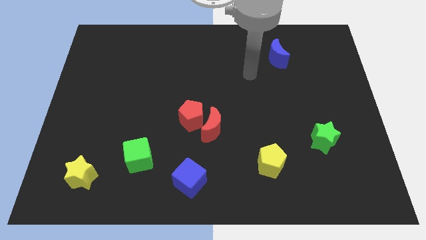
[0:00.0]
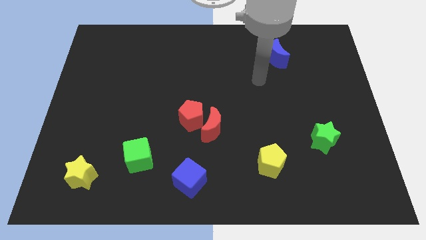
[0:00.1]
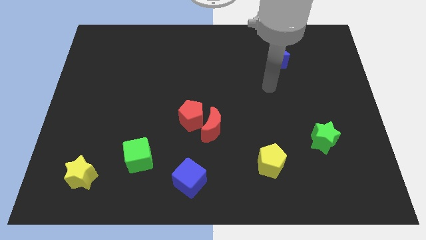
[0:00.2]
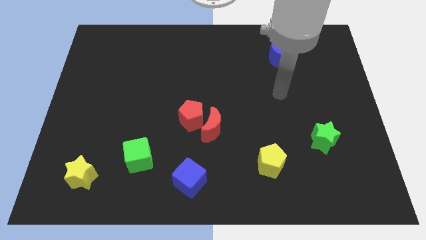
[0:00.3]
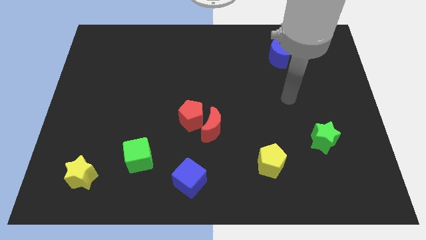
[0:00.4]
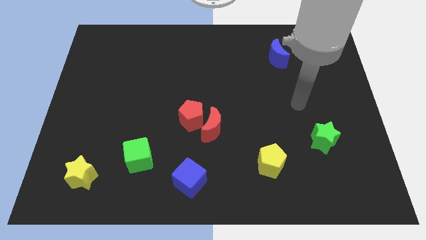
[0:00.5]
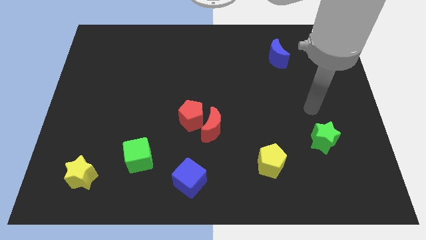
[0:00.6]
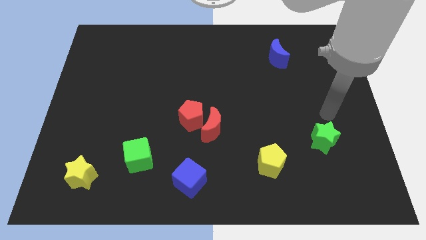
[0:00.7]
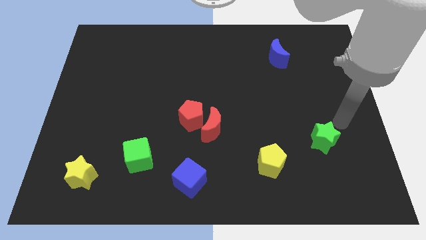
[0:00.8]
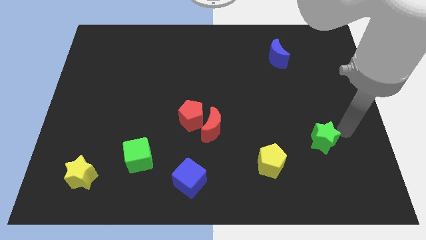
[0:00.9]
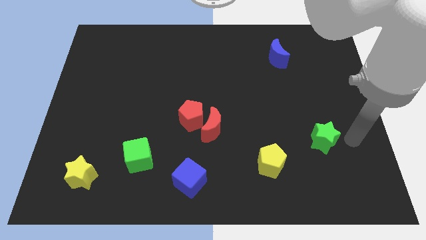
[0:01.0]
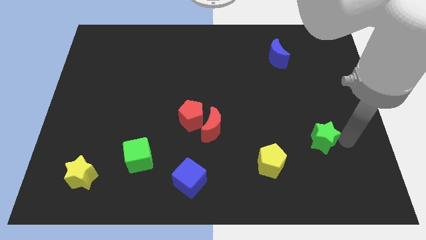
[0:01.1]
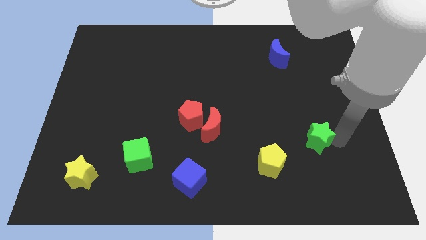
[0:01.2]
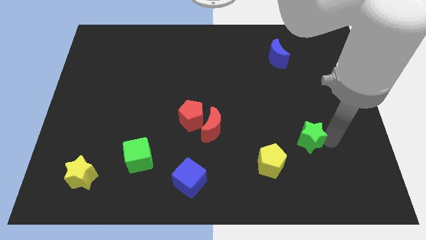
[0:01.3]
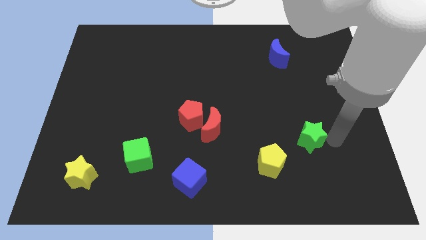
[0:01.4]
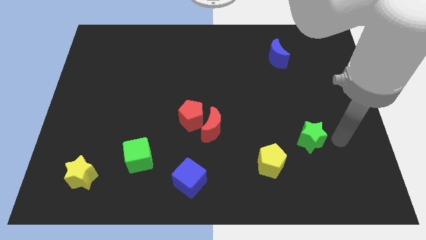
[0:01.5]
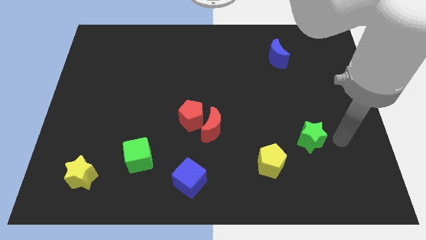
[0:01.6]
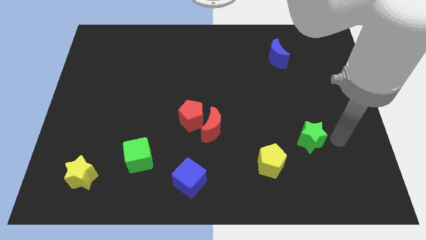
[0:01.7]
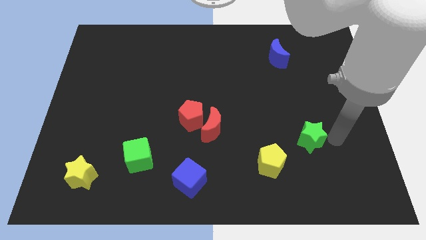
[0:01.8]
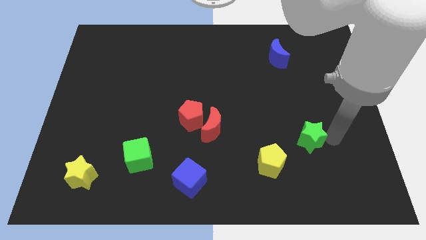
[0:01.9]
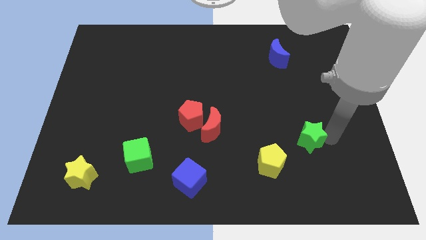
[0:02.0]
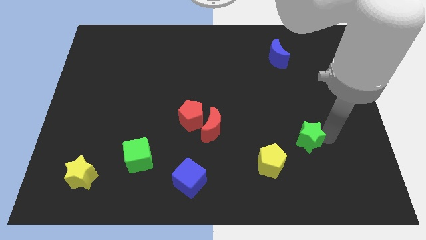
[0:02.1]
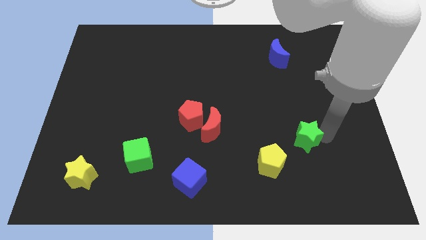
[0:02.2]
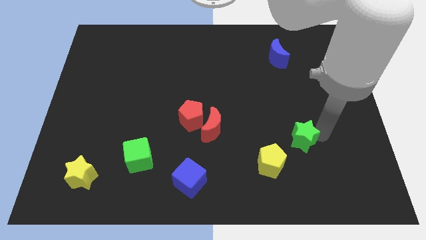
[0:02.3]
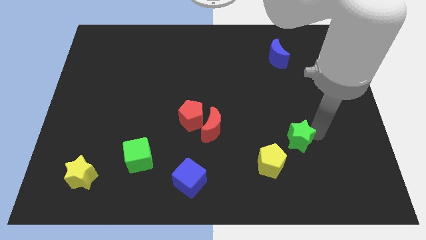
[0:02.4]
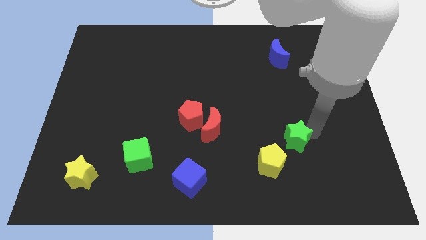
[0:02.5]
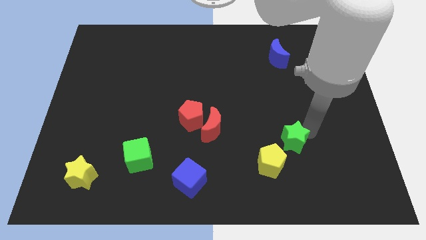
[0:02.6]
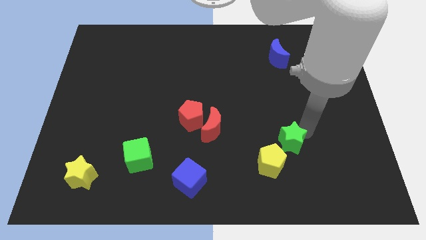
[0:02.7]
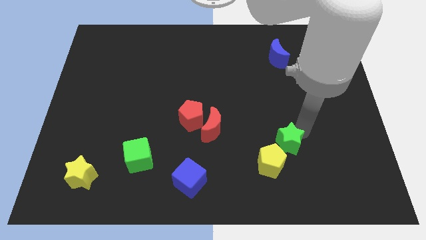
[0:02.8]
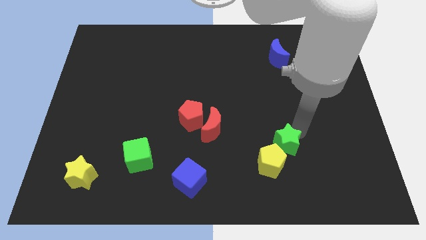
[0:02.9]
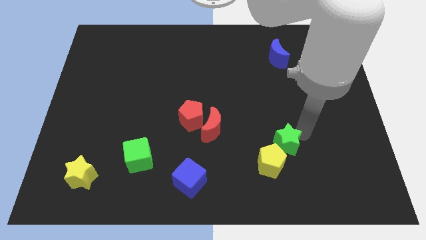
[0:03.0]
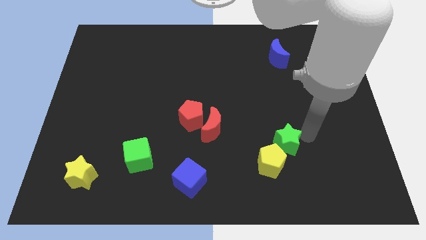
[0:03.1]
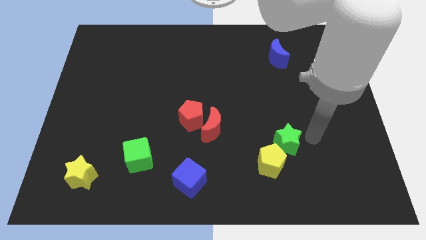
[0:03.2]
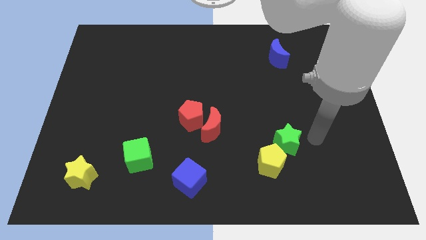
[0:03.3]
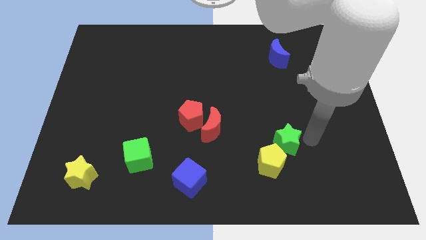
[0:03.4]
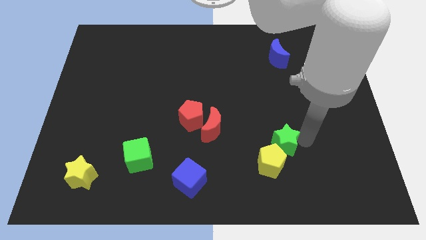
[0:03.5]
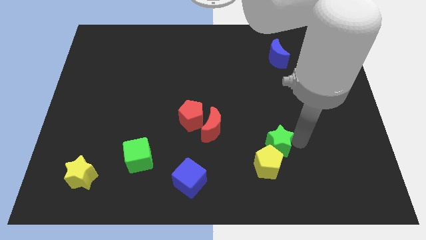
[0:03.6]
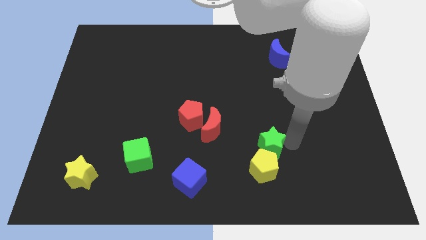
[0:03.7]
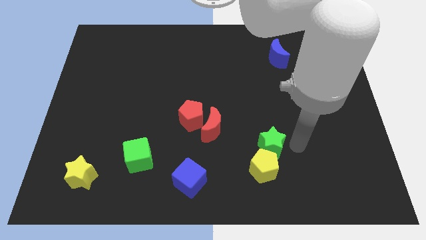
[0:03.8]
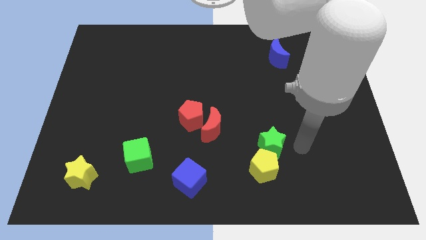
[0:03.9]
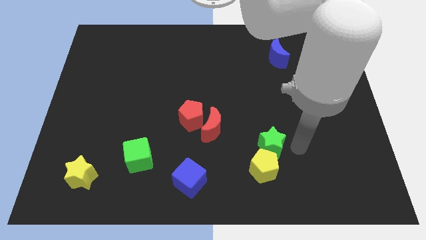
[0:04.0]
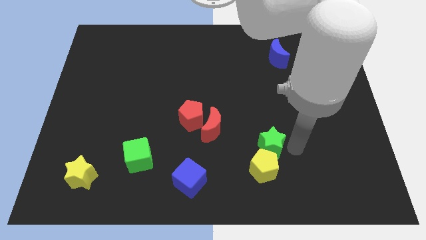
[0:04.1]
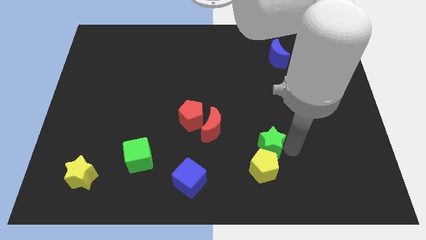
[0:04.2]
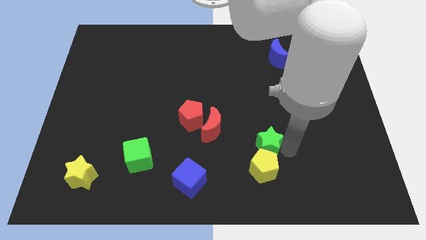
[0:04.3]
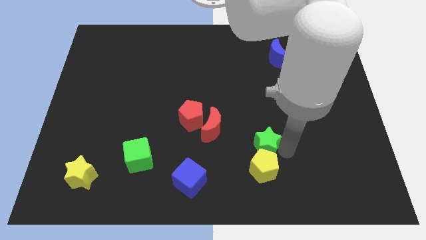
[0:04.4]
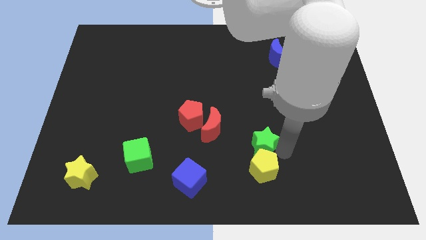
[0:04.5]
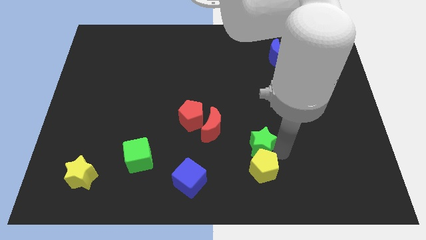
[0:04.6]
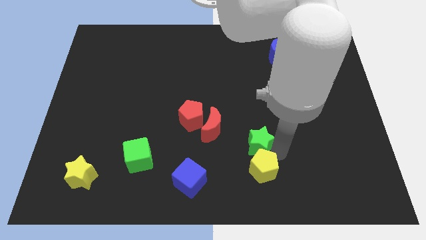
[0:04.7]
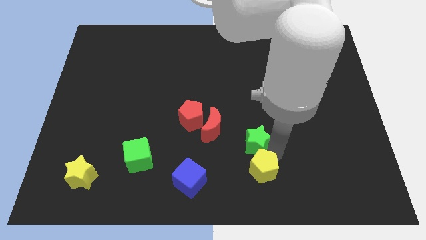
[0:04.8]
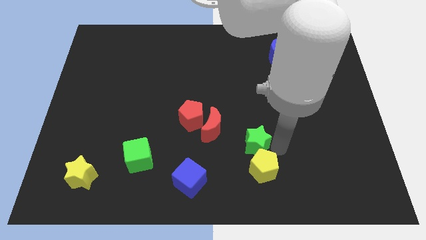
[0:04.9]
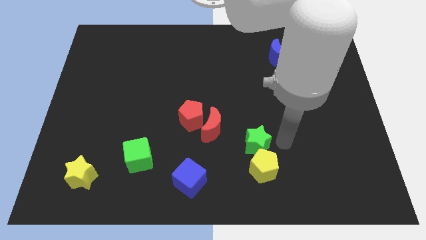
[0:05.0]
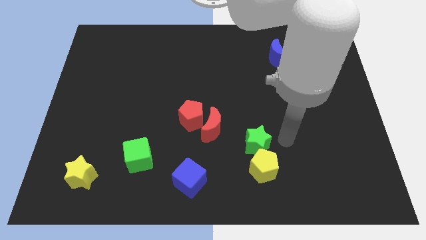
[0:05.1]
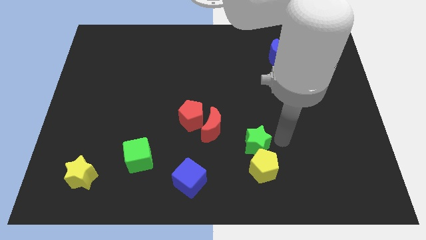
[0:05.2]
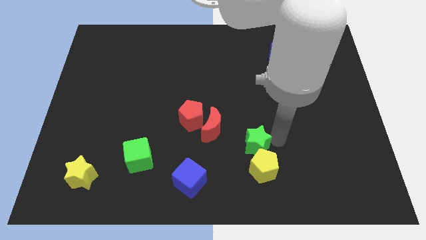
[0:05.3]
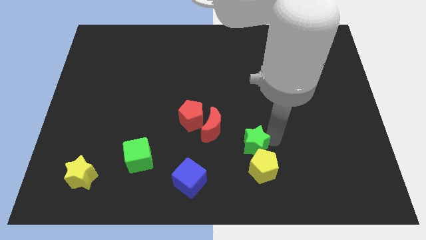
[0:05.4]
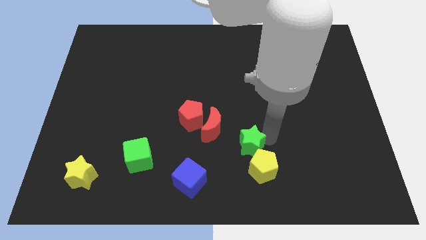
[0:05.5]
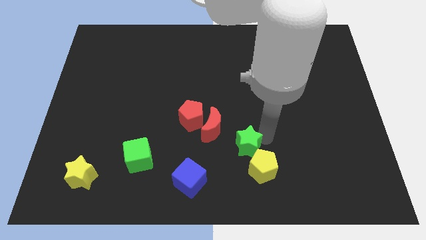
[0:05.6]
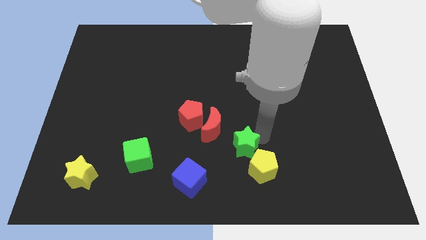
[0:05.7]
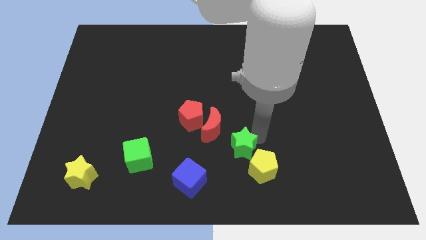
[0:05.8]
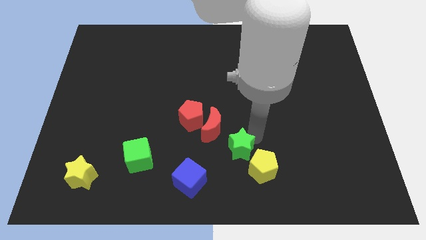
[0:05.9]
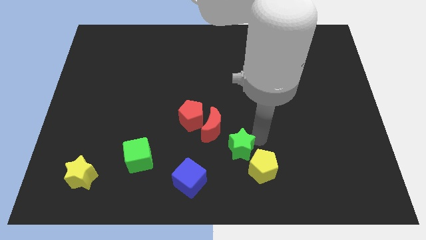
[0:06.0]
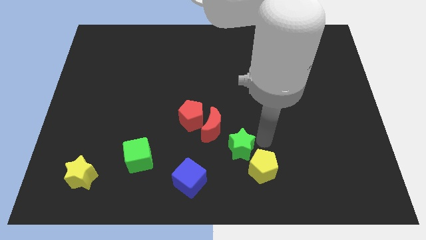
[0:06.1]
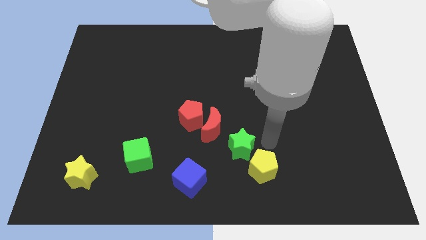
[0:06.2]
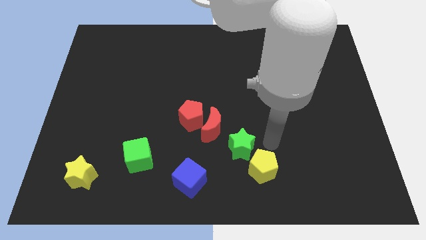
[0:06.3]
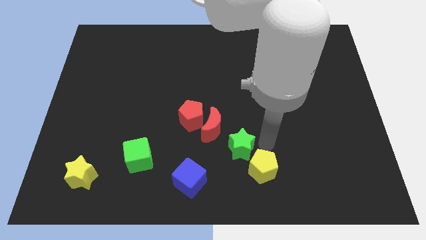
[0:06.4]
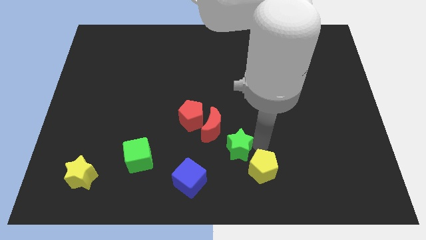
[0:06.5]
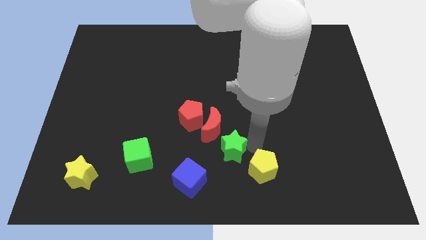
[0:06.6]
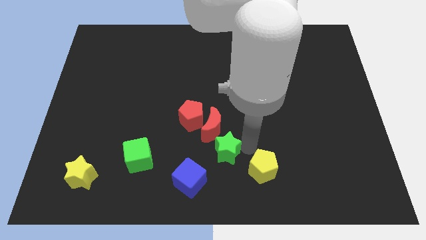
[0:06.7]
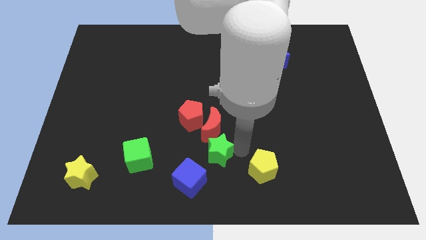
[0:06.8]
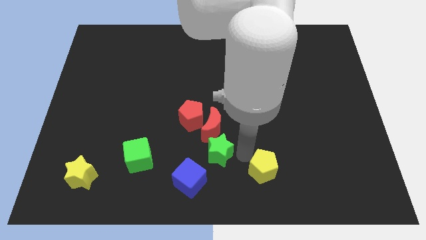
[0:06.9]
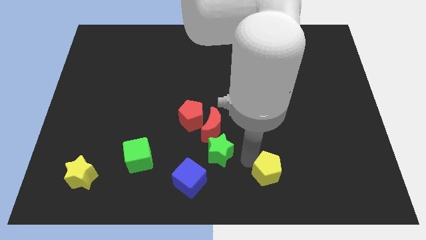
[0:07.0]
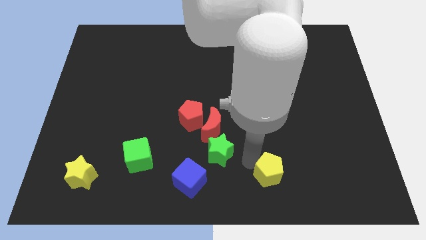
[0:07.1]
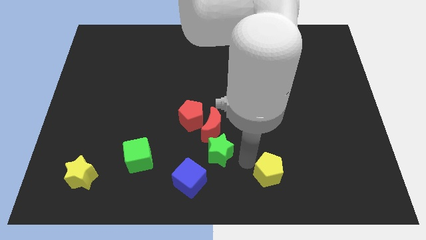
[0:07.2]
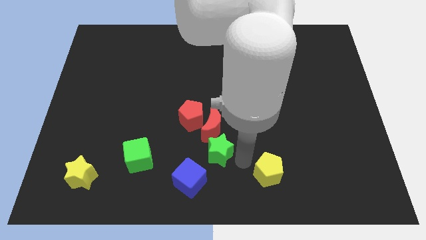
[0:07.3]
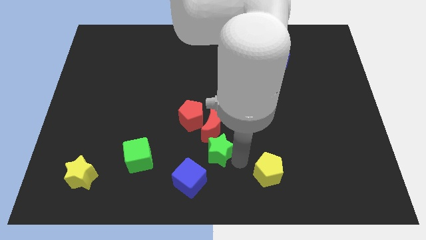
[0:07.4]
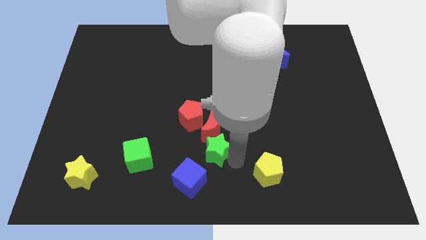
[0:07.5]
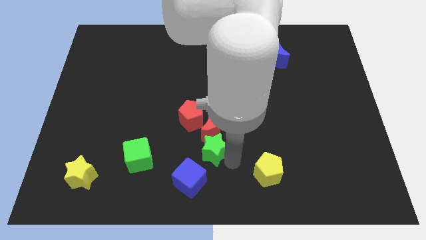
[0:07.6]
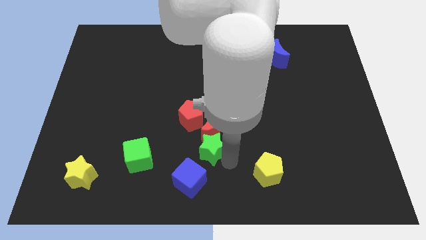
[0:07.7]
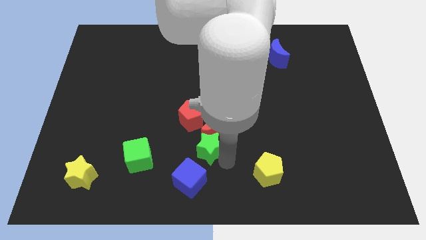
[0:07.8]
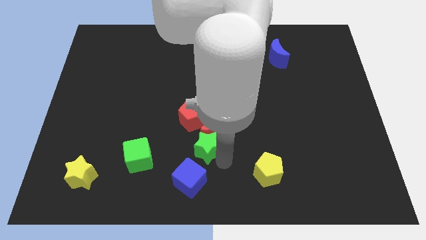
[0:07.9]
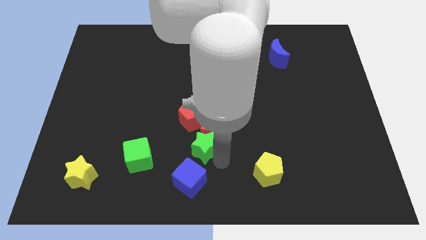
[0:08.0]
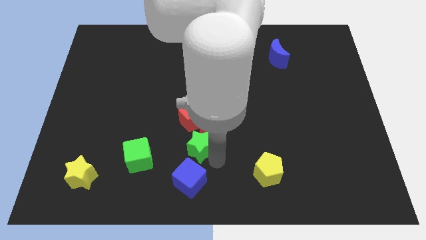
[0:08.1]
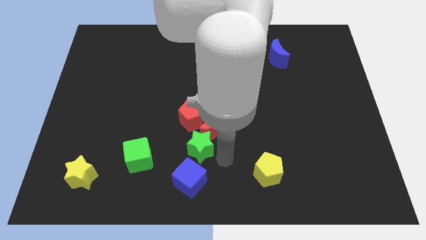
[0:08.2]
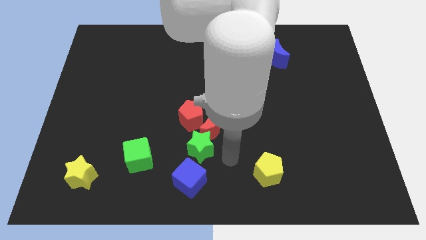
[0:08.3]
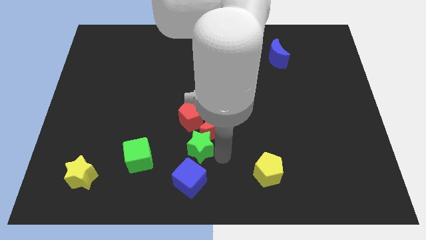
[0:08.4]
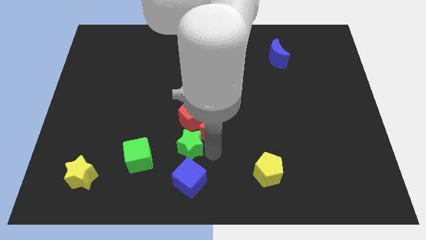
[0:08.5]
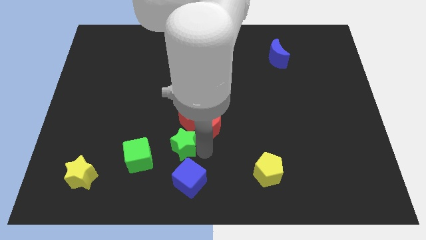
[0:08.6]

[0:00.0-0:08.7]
move the green star diagonally up and to the right of the green cube
